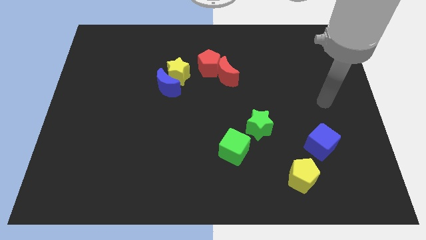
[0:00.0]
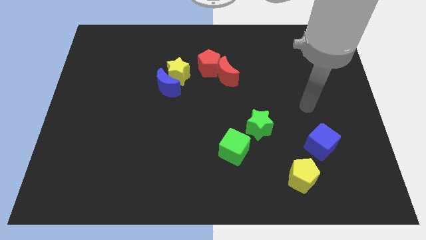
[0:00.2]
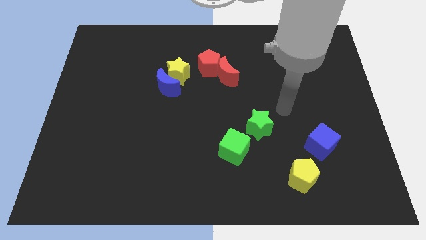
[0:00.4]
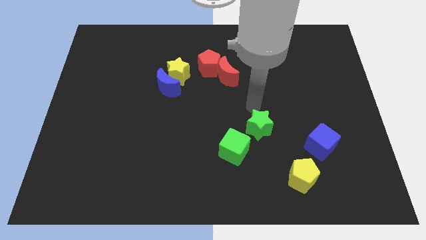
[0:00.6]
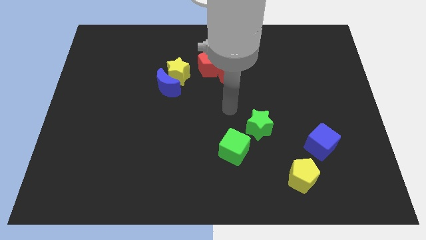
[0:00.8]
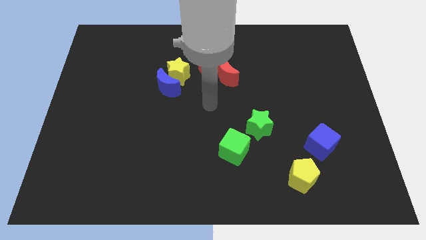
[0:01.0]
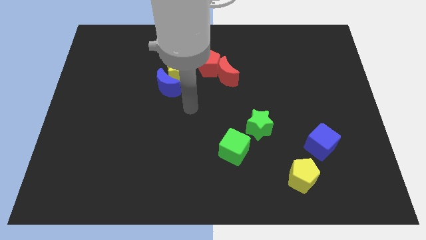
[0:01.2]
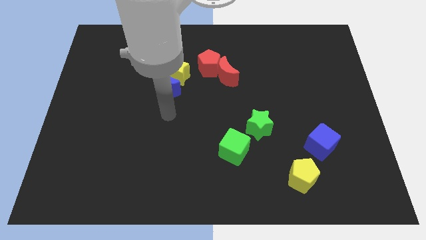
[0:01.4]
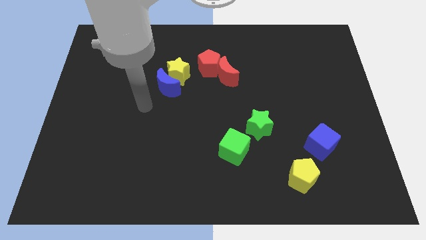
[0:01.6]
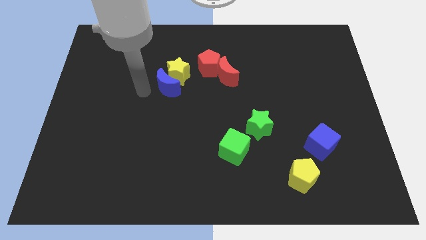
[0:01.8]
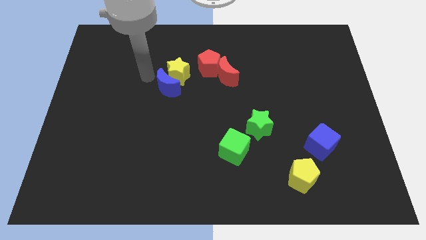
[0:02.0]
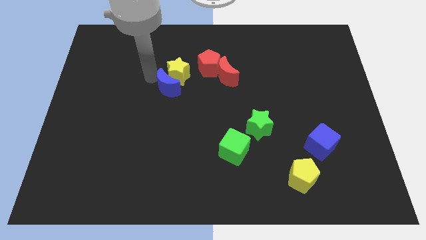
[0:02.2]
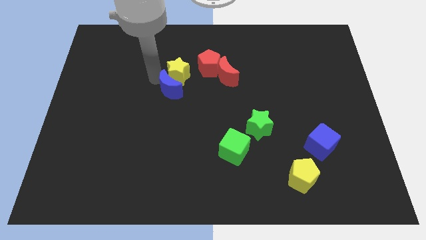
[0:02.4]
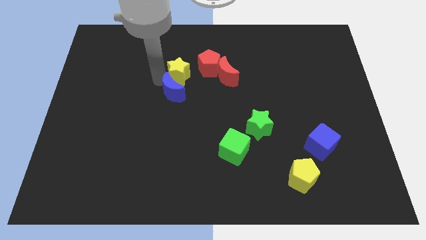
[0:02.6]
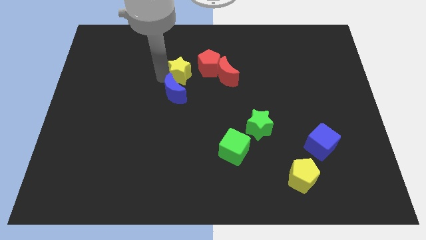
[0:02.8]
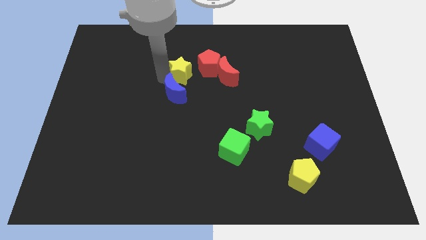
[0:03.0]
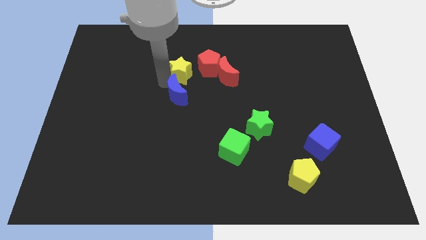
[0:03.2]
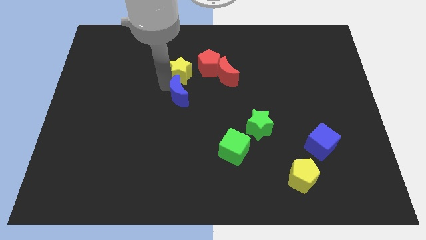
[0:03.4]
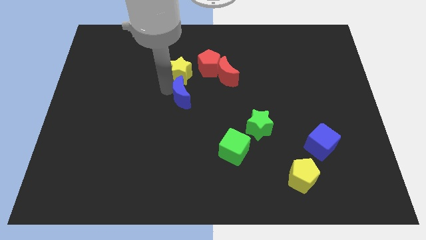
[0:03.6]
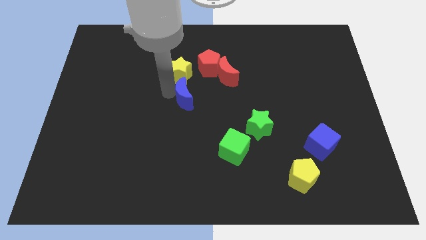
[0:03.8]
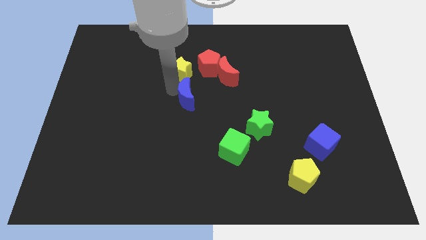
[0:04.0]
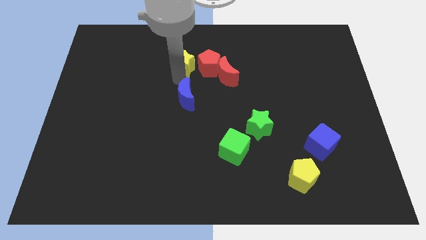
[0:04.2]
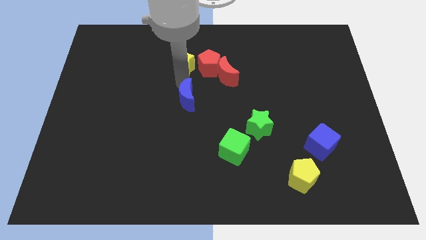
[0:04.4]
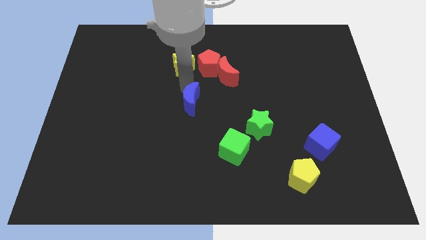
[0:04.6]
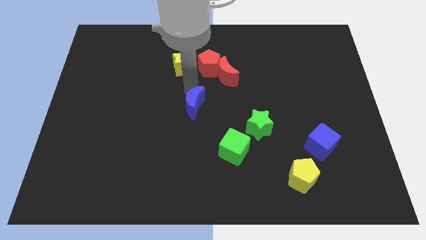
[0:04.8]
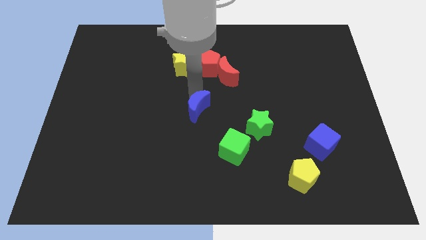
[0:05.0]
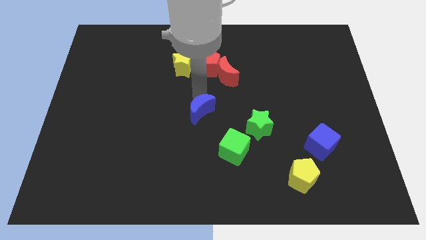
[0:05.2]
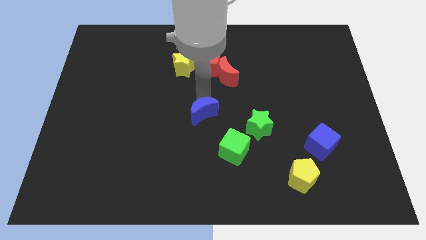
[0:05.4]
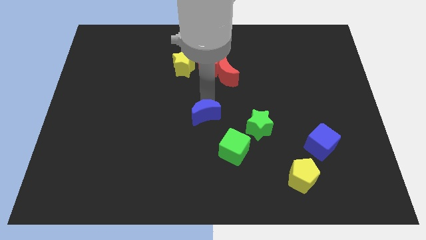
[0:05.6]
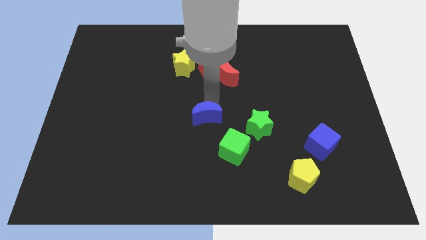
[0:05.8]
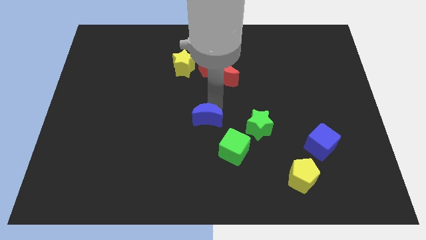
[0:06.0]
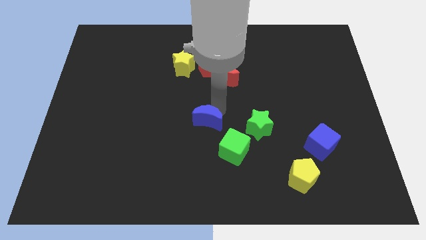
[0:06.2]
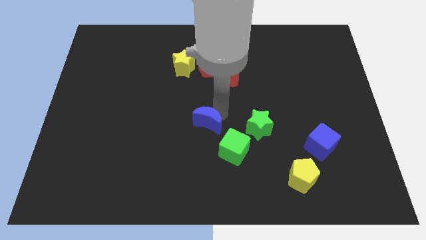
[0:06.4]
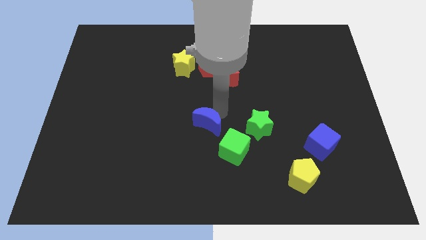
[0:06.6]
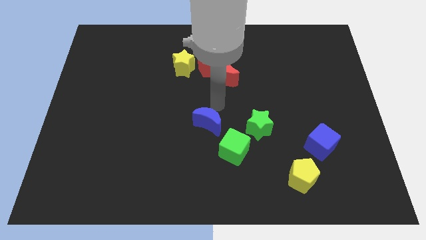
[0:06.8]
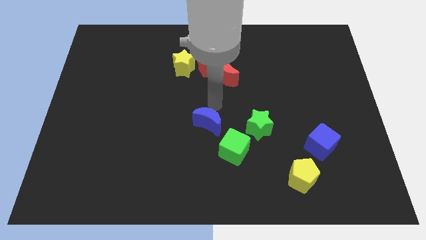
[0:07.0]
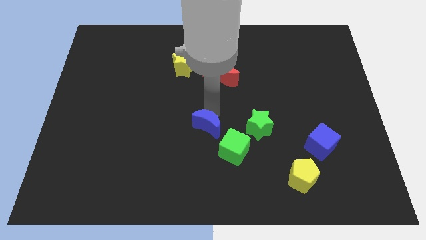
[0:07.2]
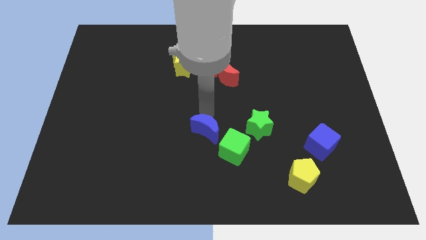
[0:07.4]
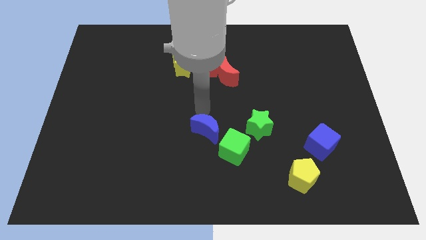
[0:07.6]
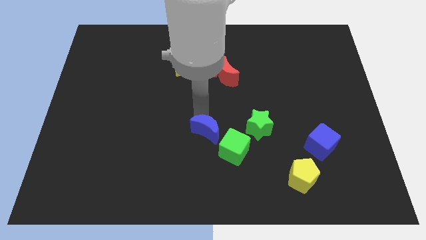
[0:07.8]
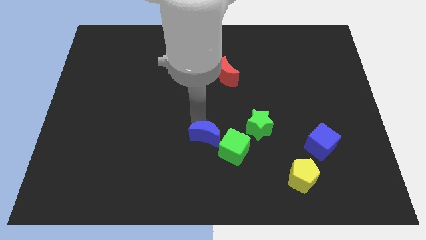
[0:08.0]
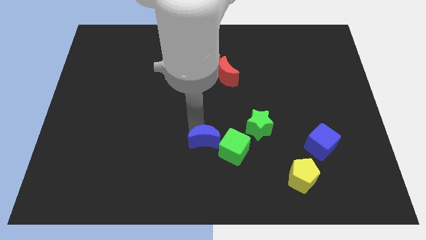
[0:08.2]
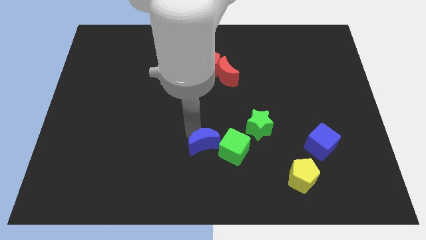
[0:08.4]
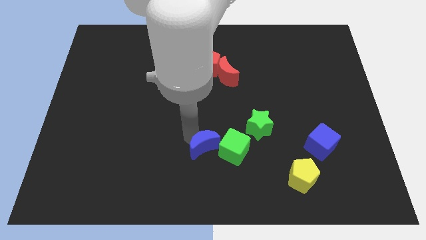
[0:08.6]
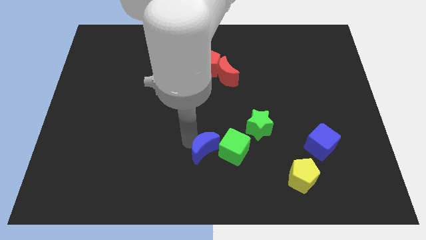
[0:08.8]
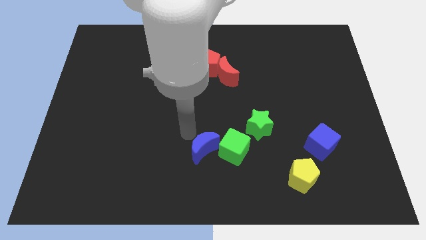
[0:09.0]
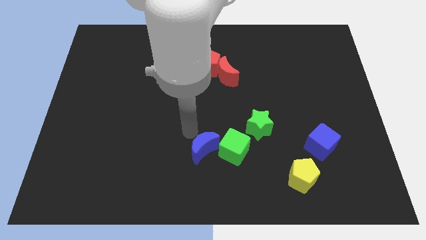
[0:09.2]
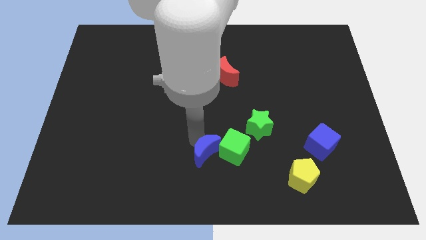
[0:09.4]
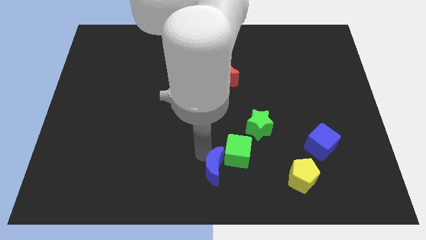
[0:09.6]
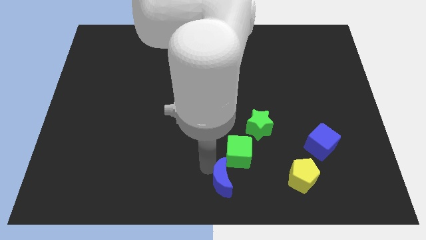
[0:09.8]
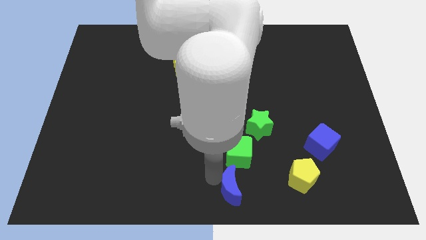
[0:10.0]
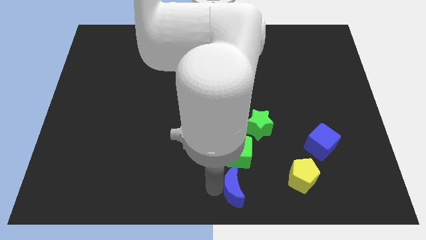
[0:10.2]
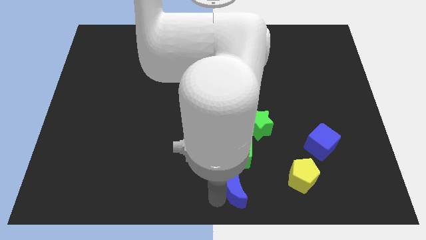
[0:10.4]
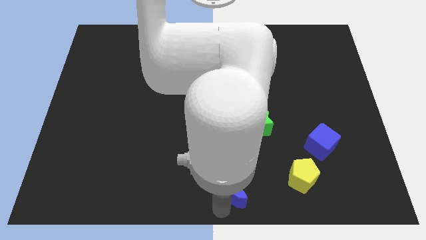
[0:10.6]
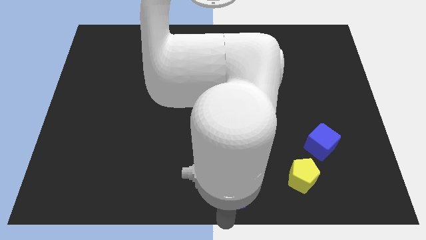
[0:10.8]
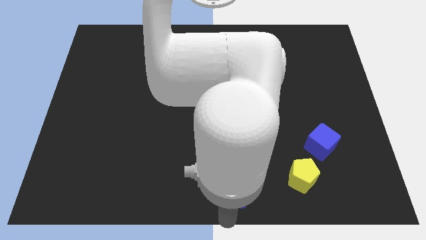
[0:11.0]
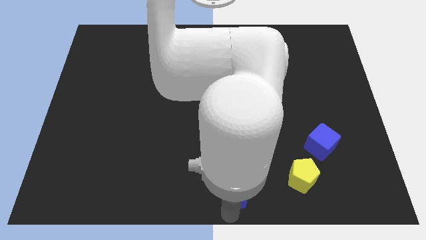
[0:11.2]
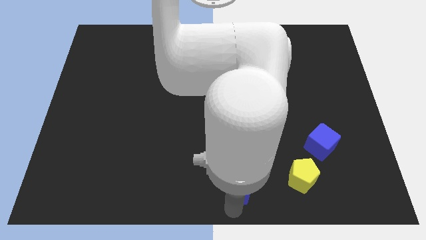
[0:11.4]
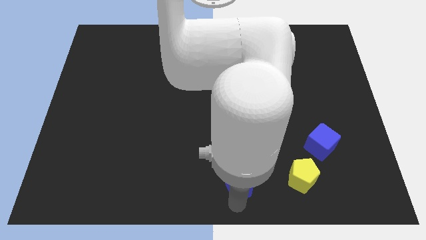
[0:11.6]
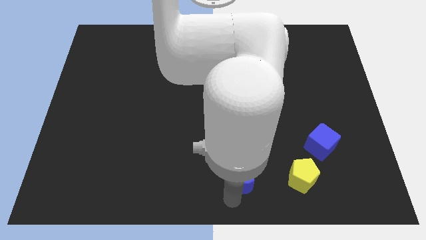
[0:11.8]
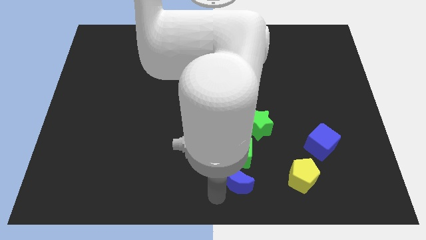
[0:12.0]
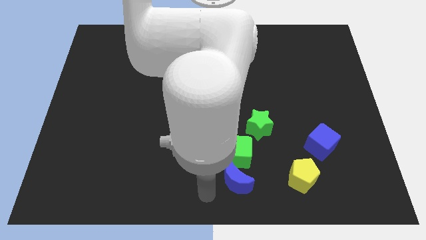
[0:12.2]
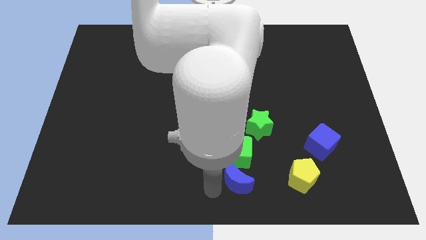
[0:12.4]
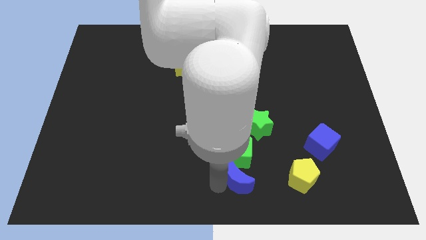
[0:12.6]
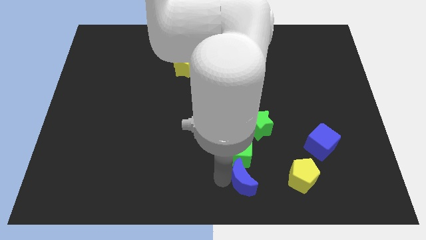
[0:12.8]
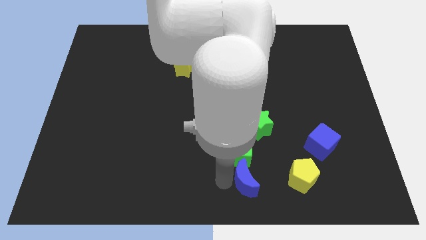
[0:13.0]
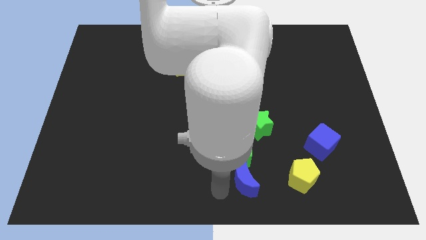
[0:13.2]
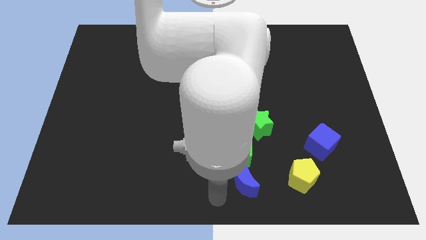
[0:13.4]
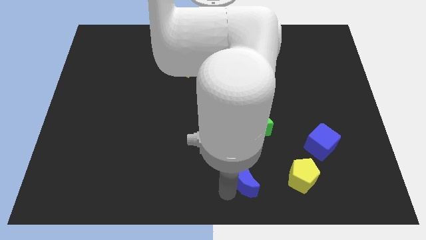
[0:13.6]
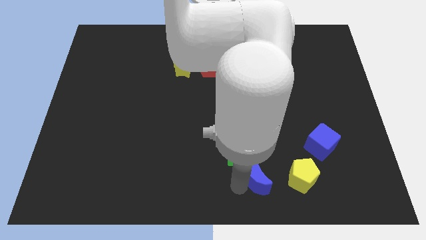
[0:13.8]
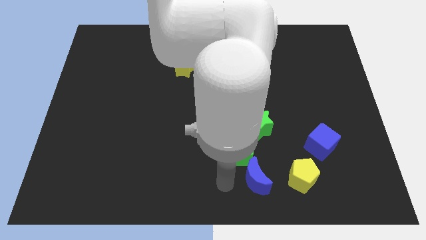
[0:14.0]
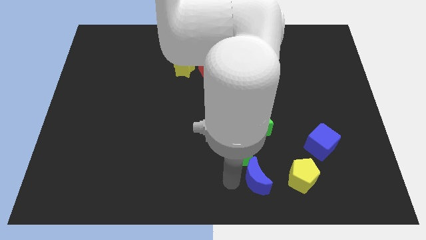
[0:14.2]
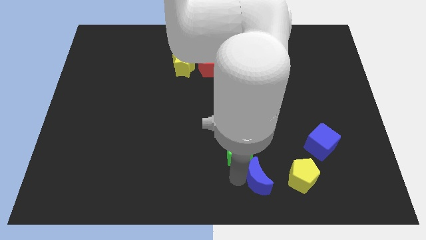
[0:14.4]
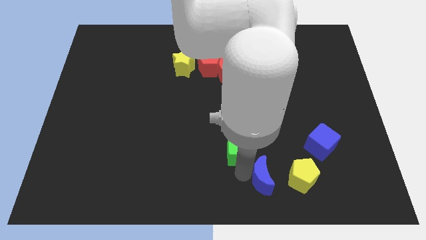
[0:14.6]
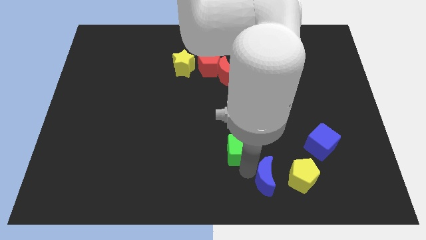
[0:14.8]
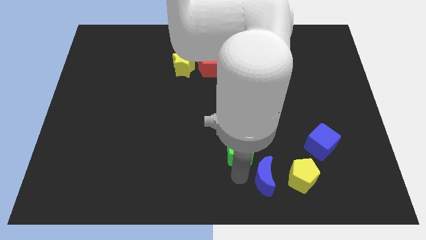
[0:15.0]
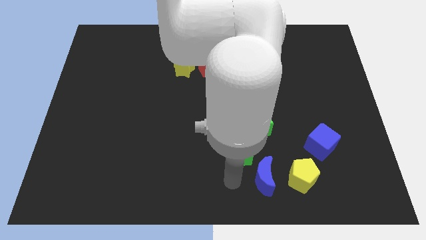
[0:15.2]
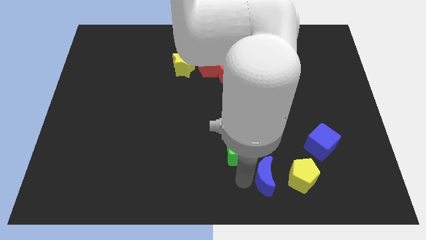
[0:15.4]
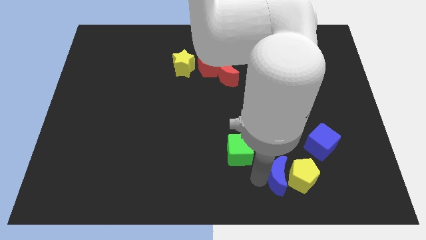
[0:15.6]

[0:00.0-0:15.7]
push the blue moon close to the yellow pentagon

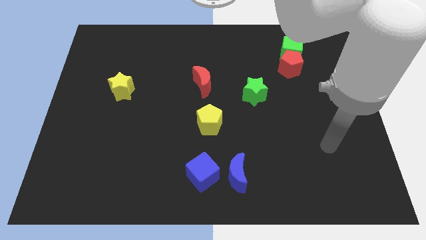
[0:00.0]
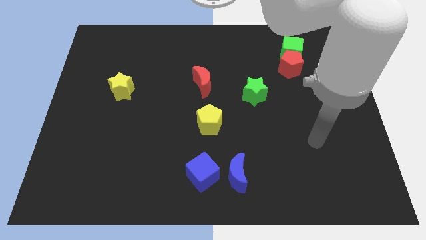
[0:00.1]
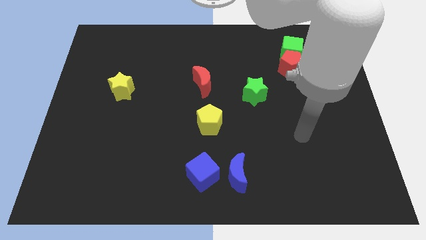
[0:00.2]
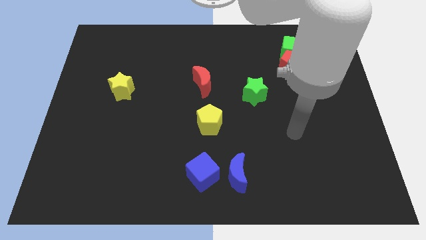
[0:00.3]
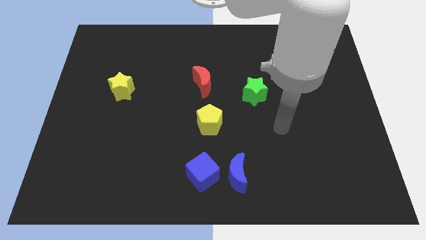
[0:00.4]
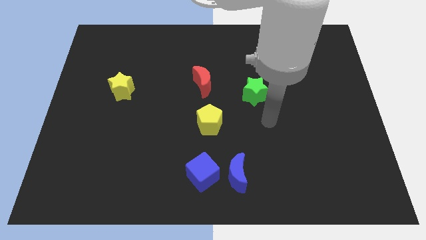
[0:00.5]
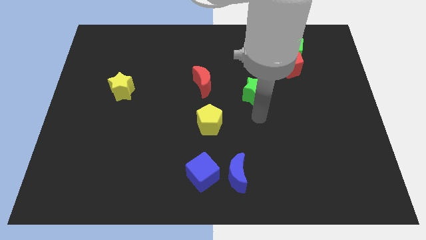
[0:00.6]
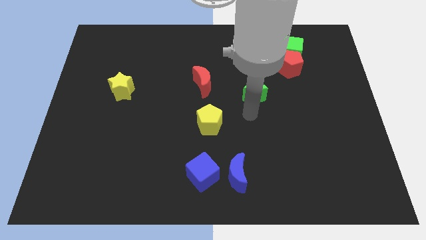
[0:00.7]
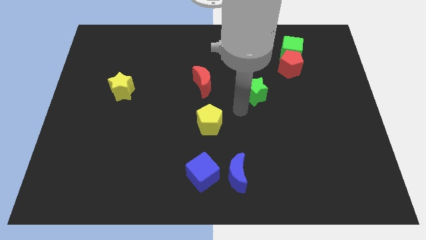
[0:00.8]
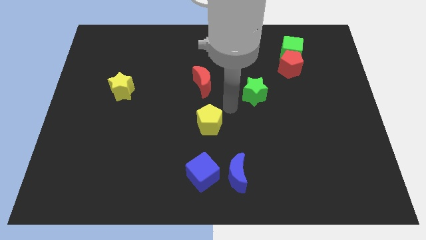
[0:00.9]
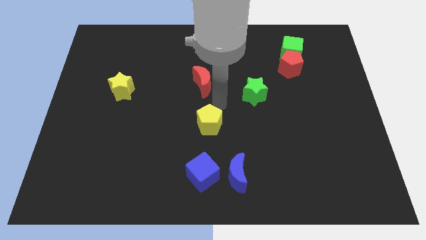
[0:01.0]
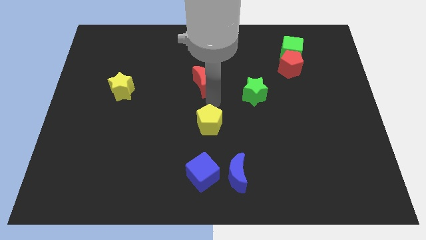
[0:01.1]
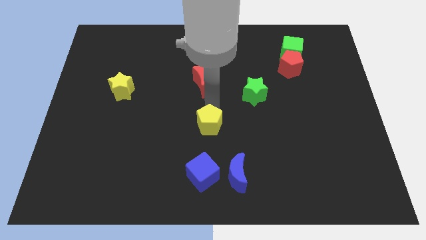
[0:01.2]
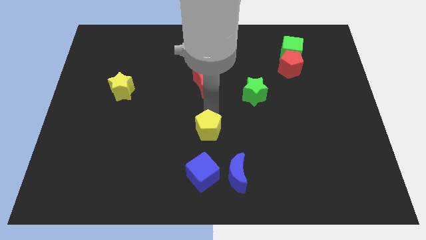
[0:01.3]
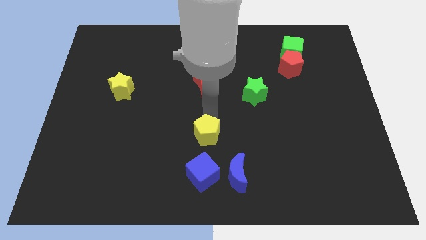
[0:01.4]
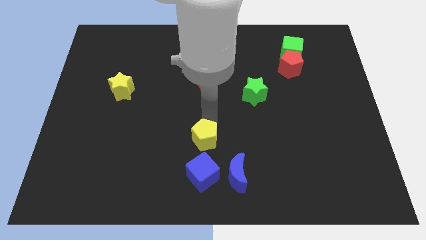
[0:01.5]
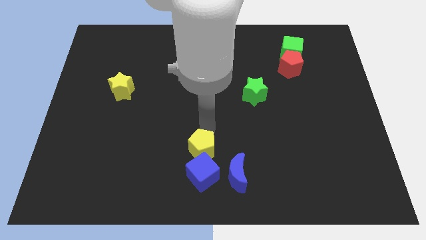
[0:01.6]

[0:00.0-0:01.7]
move the yellow pentagon next to the blue cube
